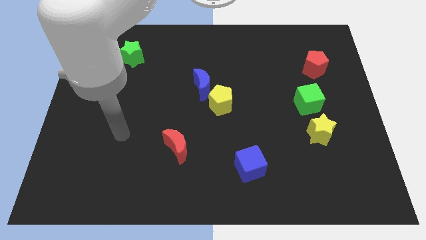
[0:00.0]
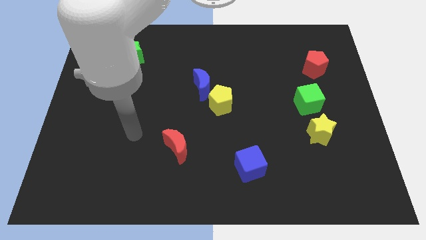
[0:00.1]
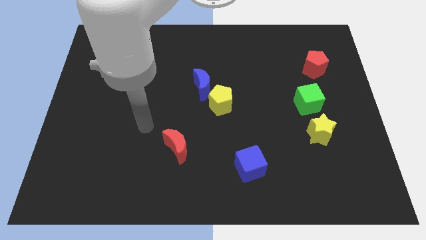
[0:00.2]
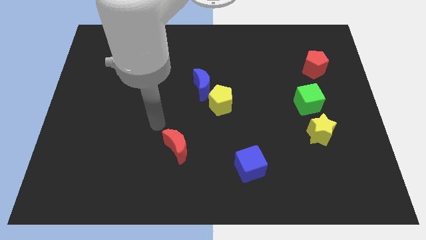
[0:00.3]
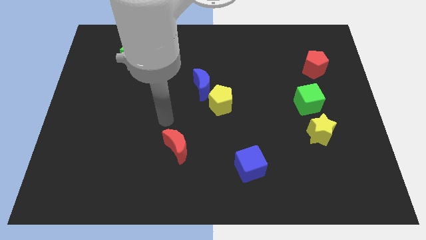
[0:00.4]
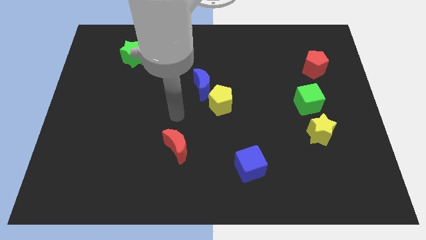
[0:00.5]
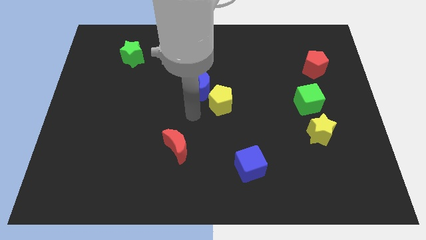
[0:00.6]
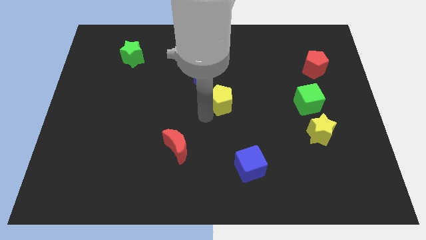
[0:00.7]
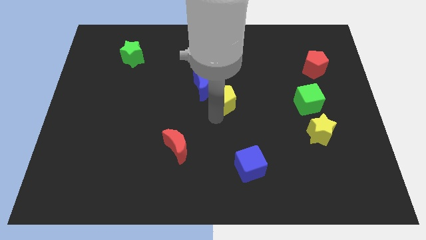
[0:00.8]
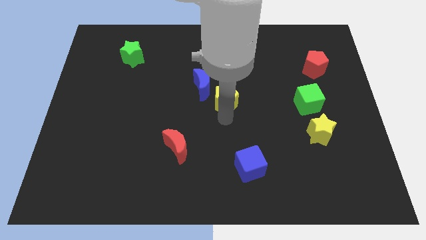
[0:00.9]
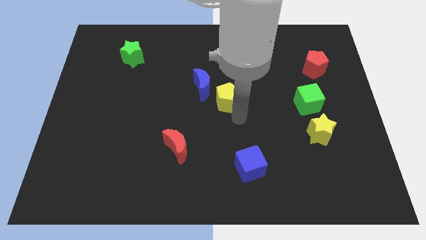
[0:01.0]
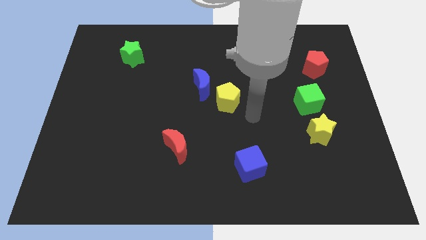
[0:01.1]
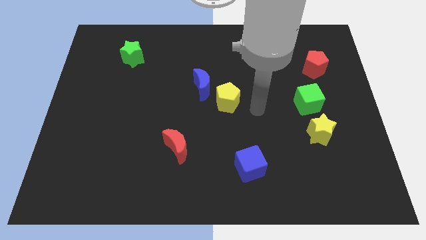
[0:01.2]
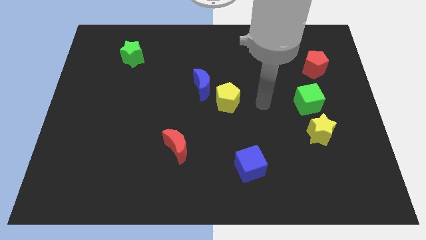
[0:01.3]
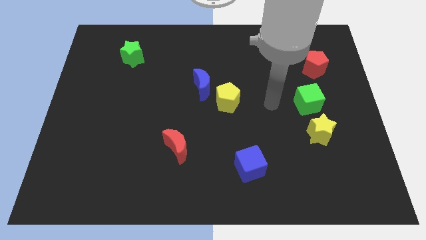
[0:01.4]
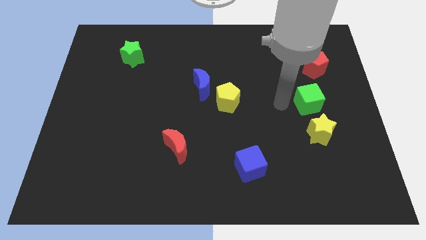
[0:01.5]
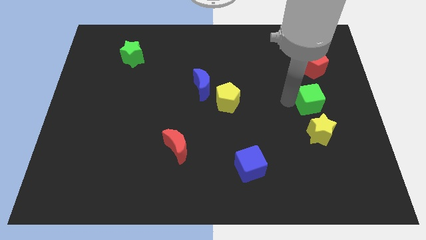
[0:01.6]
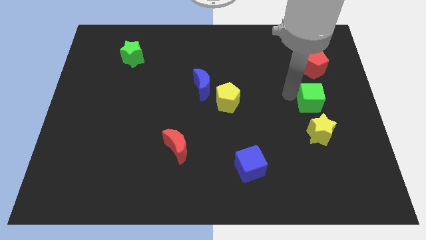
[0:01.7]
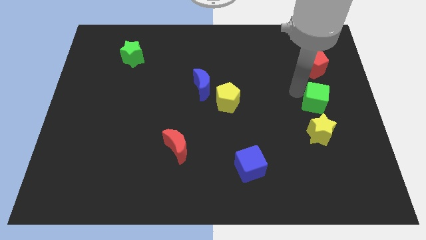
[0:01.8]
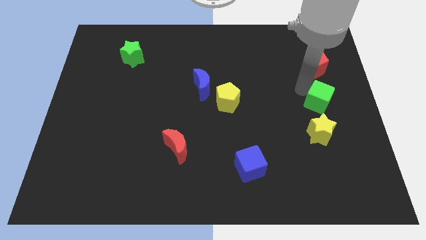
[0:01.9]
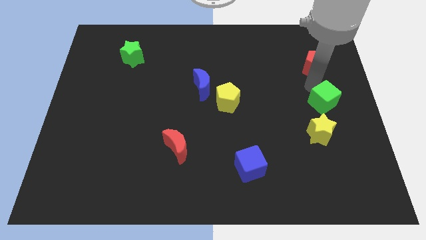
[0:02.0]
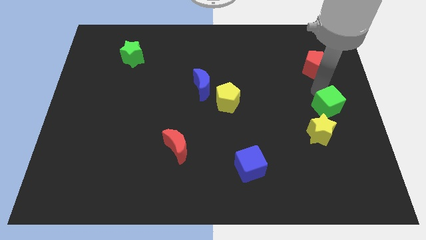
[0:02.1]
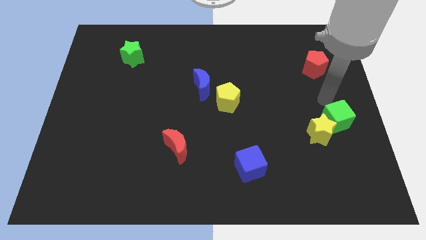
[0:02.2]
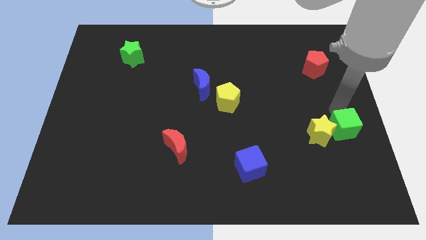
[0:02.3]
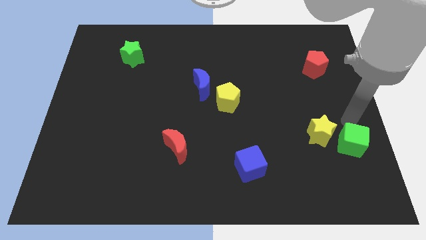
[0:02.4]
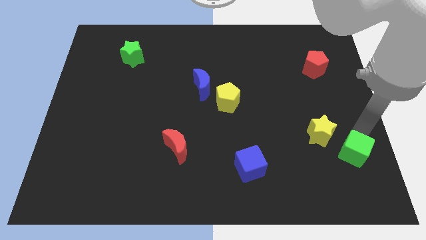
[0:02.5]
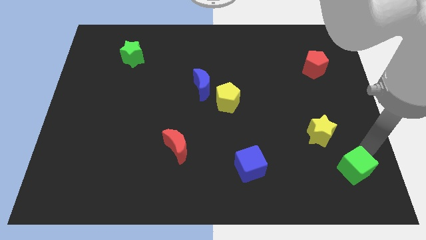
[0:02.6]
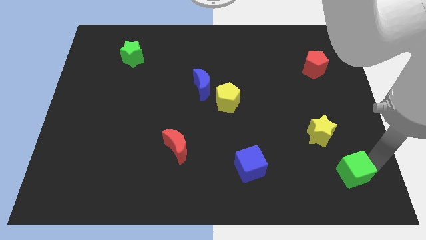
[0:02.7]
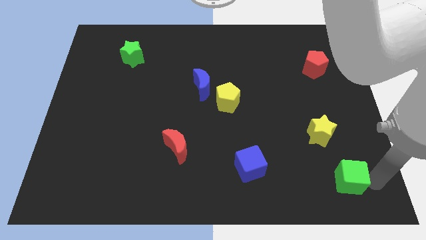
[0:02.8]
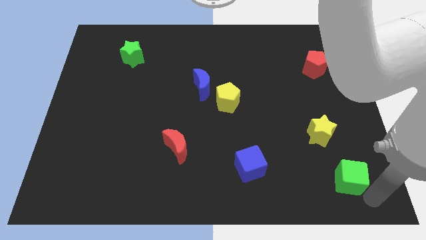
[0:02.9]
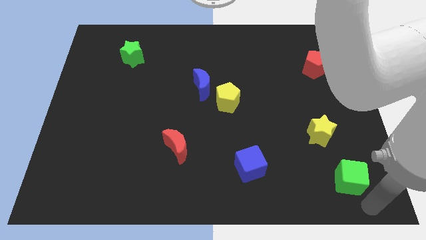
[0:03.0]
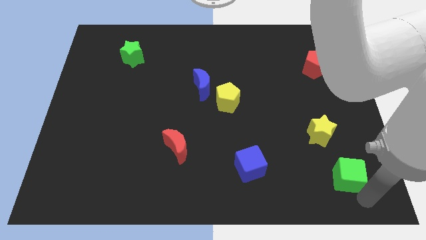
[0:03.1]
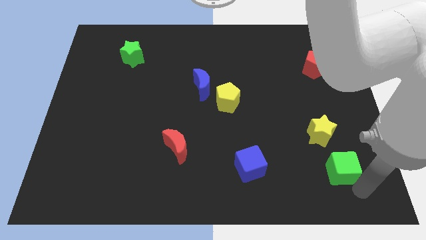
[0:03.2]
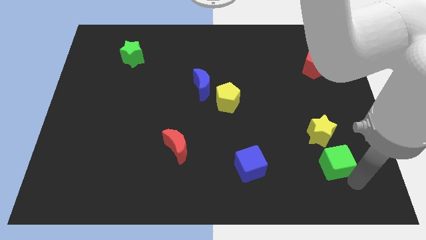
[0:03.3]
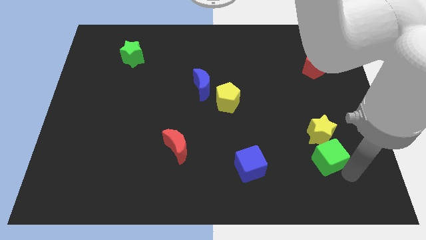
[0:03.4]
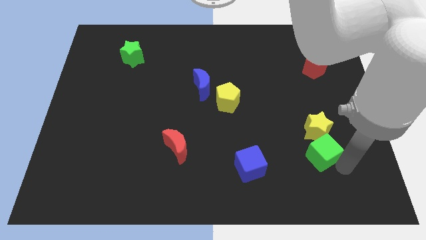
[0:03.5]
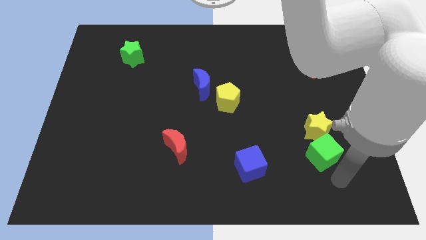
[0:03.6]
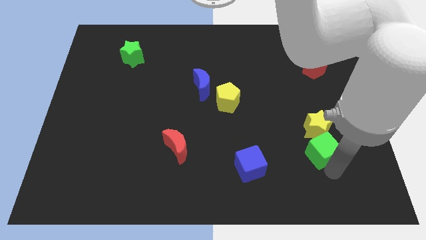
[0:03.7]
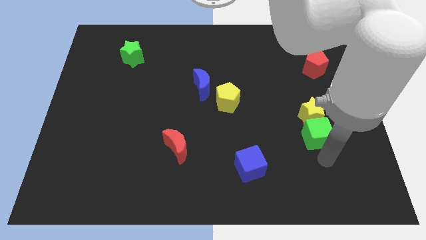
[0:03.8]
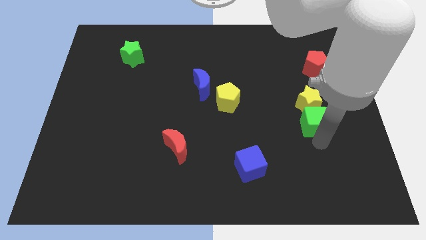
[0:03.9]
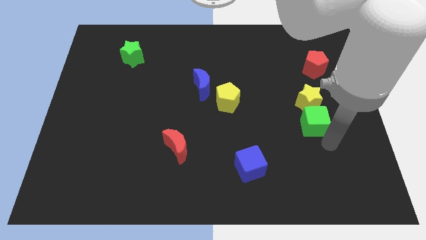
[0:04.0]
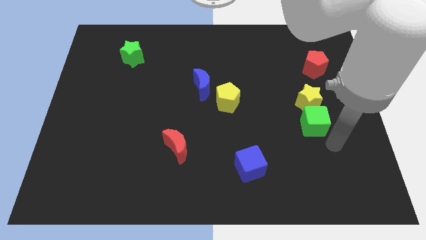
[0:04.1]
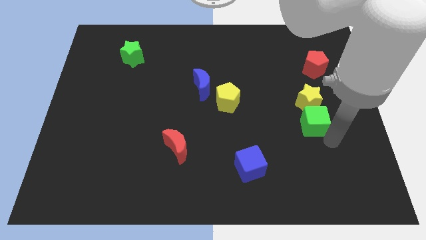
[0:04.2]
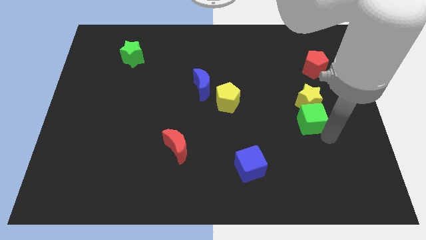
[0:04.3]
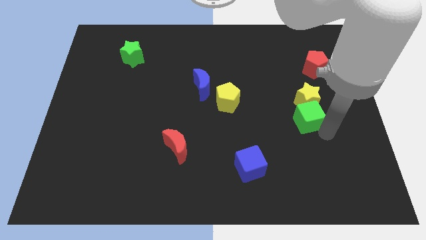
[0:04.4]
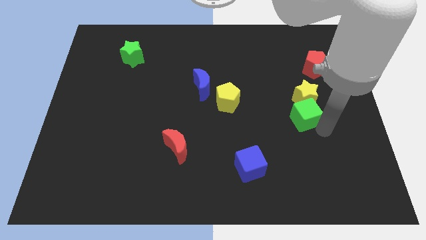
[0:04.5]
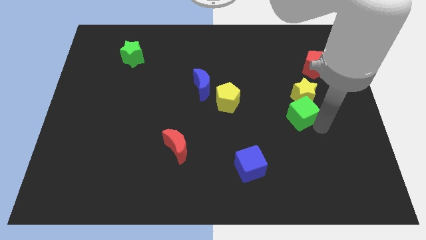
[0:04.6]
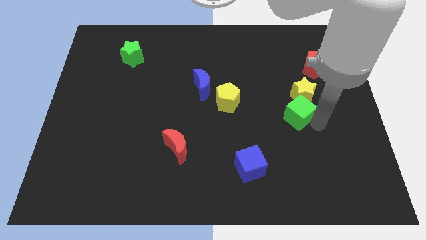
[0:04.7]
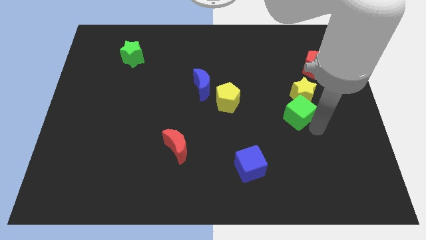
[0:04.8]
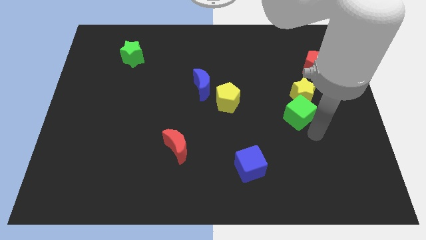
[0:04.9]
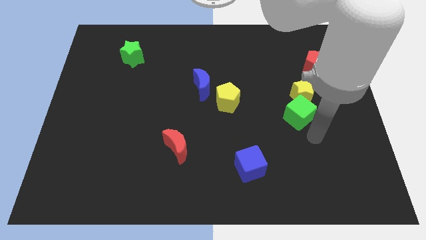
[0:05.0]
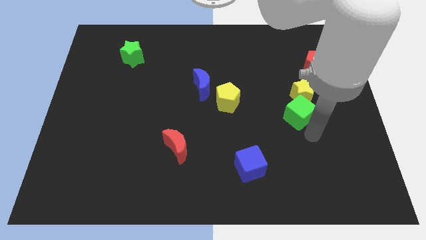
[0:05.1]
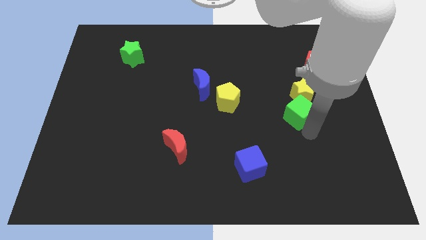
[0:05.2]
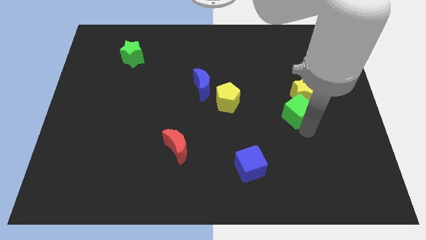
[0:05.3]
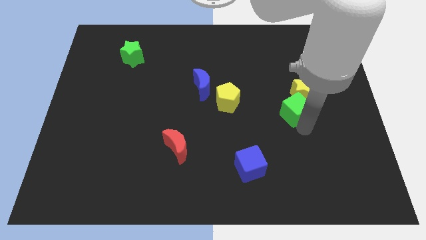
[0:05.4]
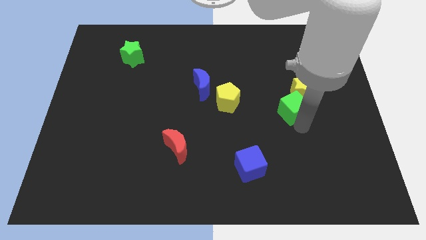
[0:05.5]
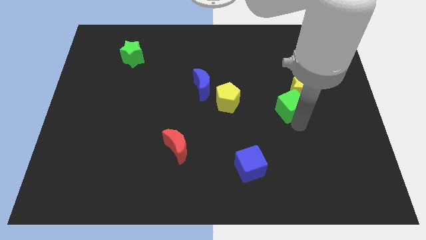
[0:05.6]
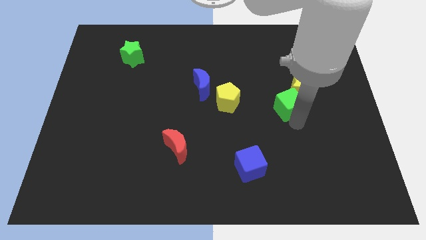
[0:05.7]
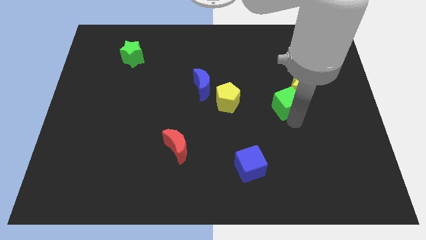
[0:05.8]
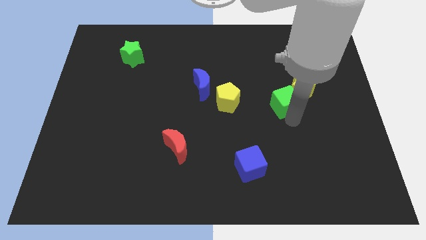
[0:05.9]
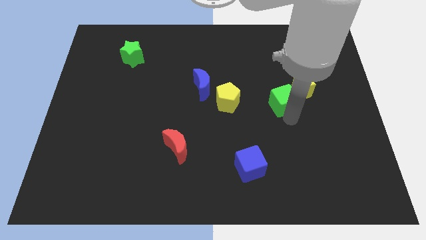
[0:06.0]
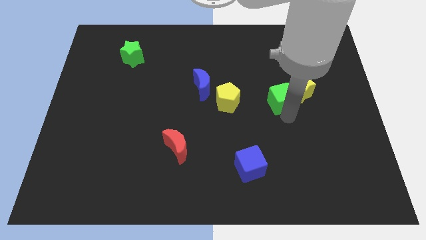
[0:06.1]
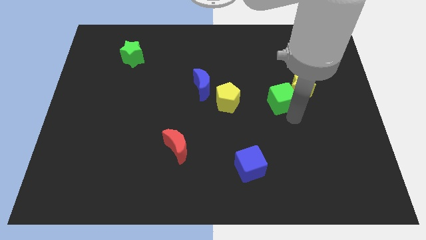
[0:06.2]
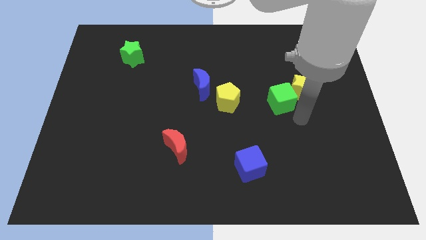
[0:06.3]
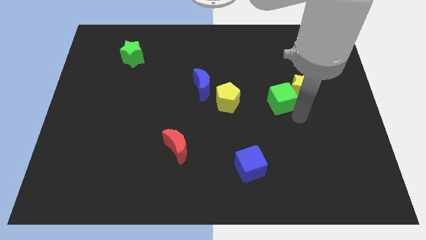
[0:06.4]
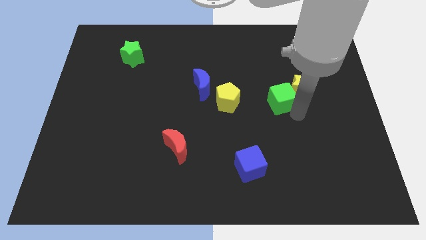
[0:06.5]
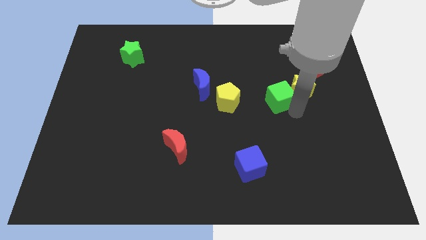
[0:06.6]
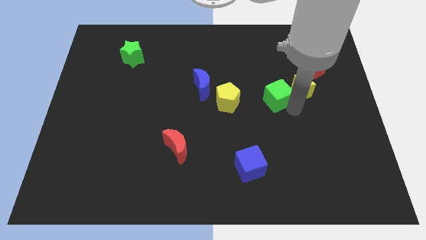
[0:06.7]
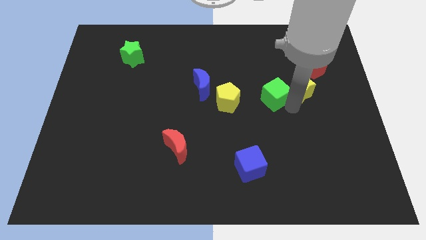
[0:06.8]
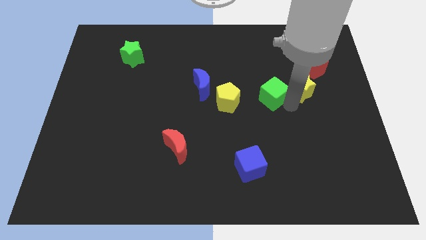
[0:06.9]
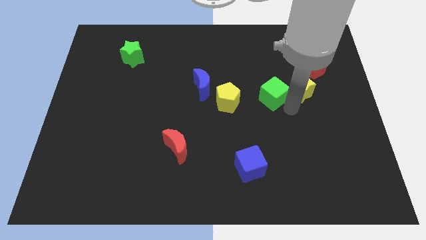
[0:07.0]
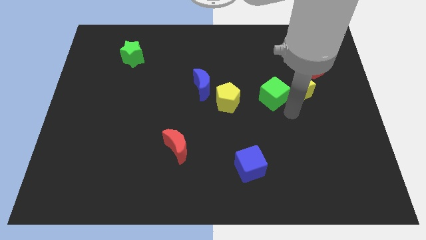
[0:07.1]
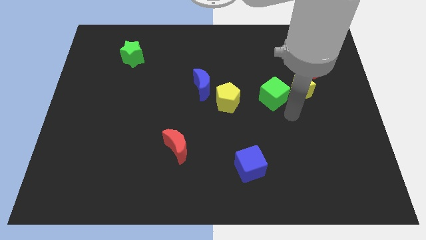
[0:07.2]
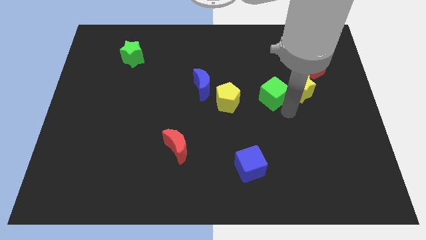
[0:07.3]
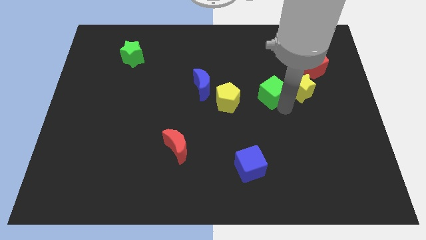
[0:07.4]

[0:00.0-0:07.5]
push the green cube up and then left a little bit

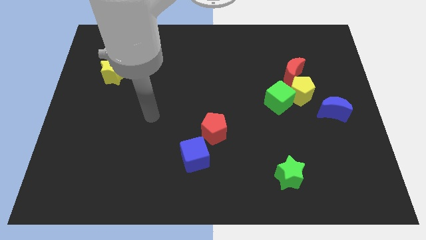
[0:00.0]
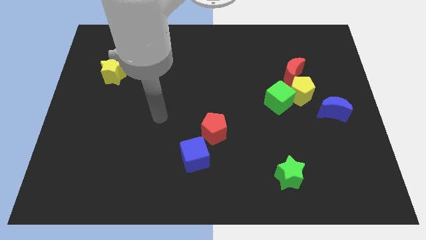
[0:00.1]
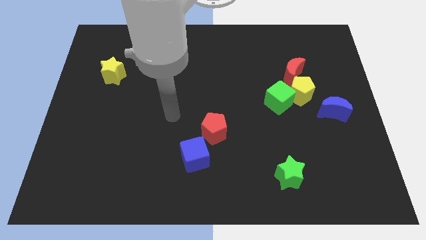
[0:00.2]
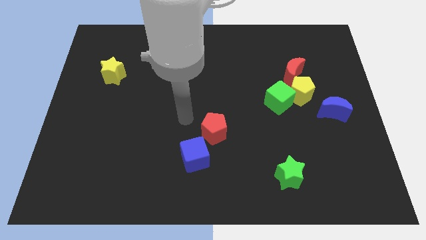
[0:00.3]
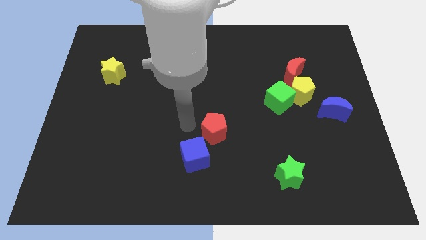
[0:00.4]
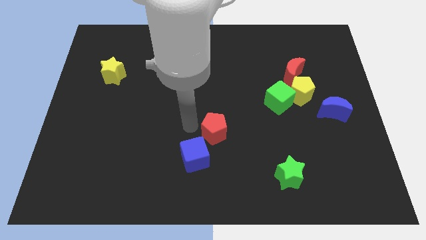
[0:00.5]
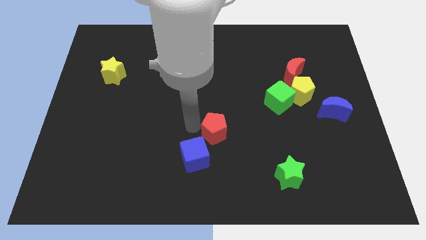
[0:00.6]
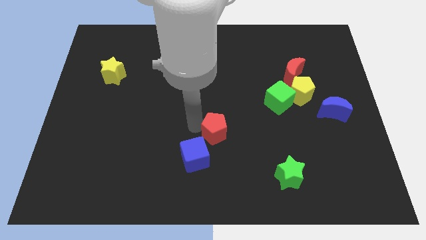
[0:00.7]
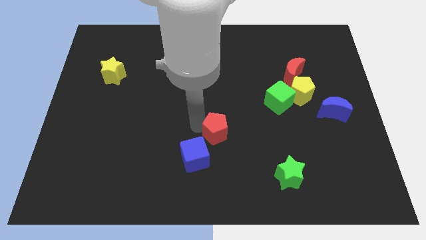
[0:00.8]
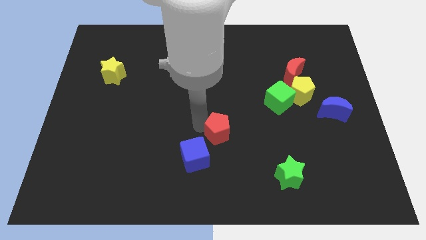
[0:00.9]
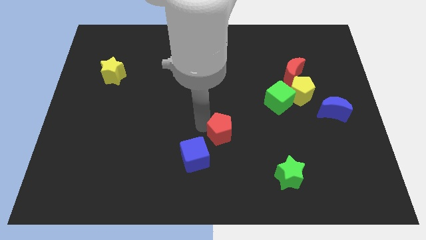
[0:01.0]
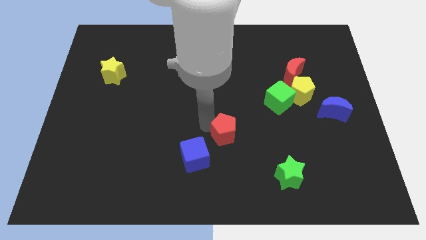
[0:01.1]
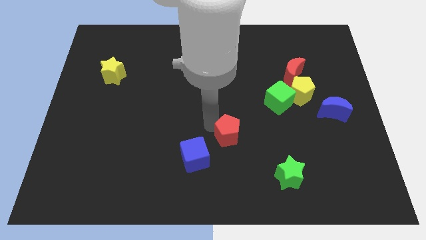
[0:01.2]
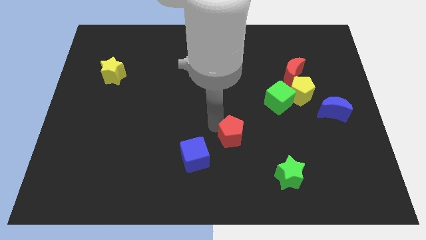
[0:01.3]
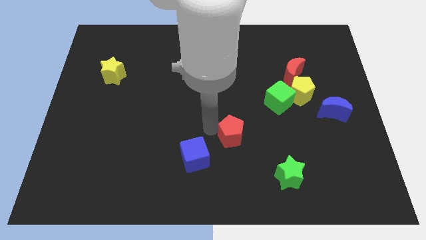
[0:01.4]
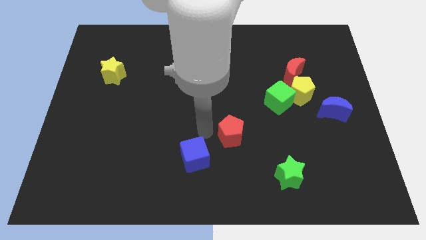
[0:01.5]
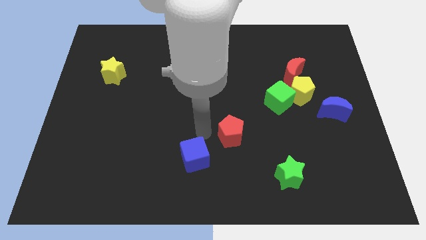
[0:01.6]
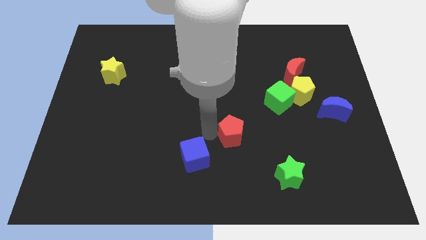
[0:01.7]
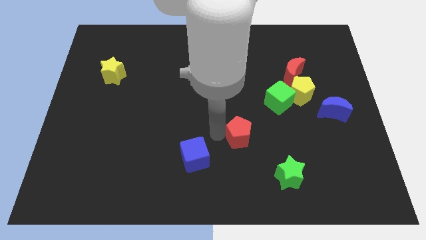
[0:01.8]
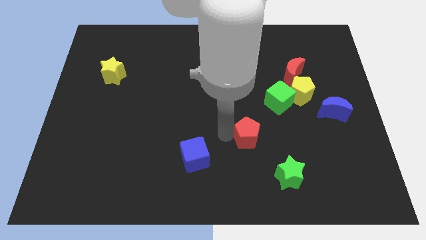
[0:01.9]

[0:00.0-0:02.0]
slightly move the red pentagon right
